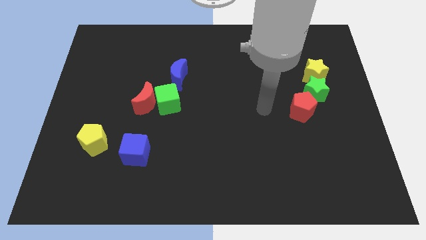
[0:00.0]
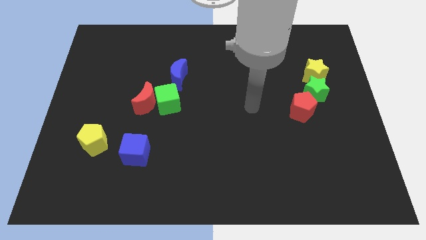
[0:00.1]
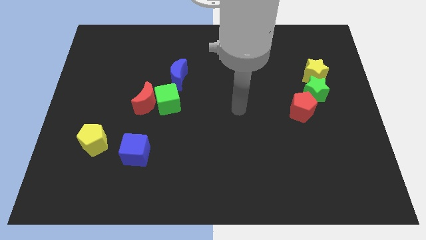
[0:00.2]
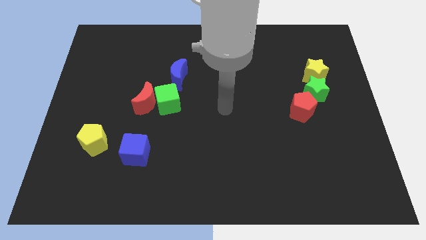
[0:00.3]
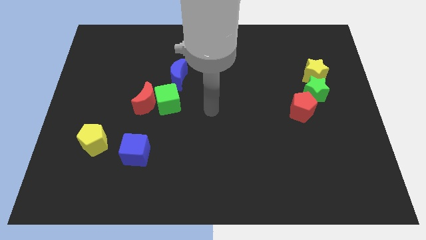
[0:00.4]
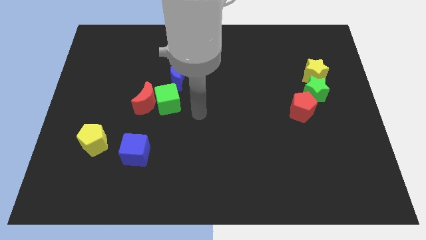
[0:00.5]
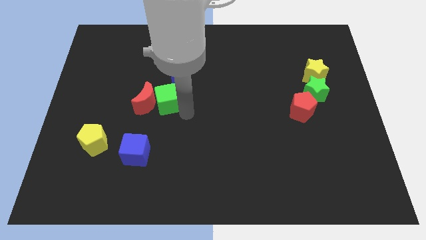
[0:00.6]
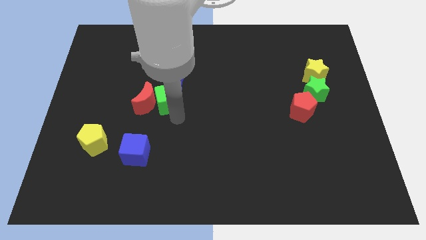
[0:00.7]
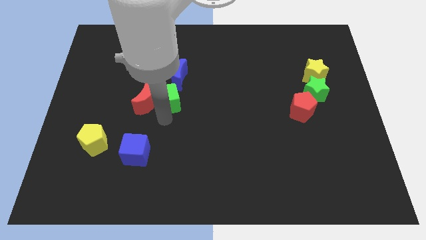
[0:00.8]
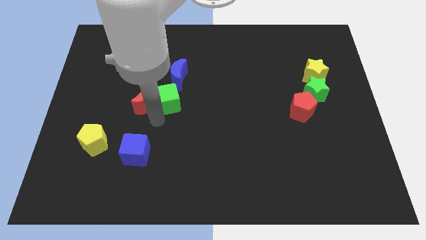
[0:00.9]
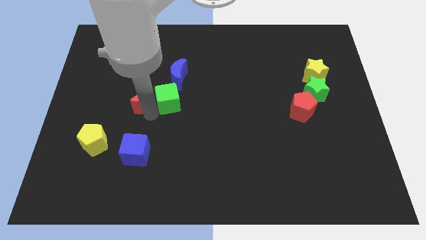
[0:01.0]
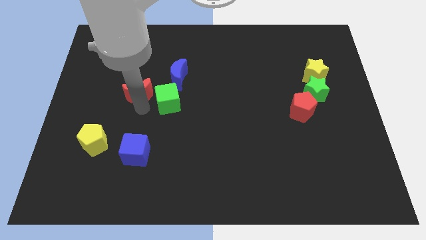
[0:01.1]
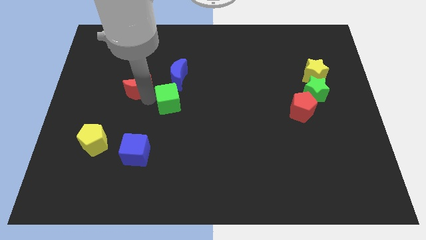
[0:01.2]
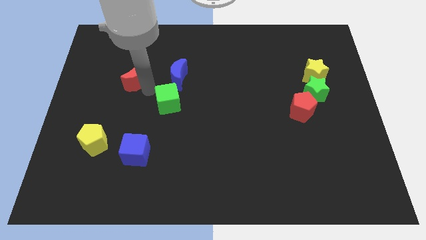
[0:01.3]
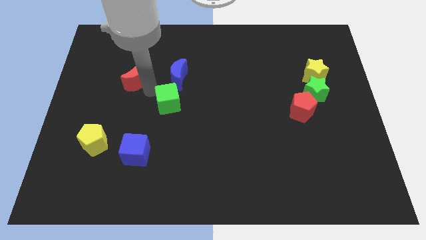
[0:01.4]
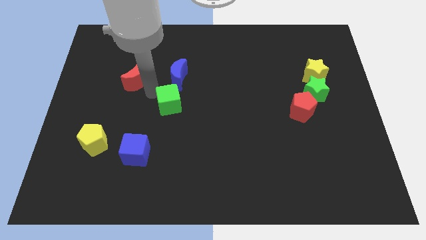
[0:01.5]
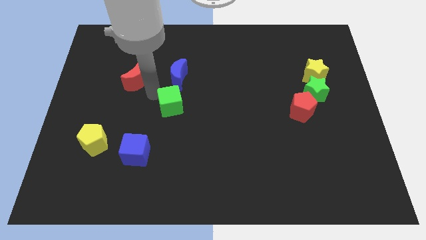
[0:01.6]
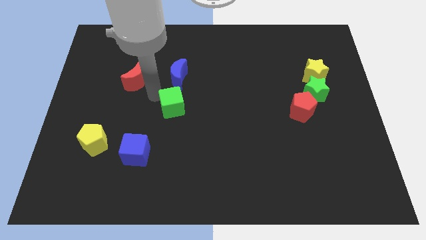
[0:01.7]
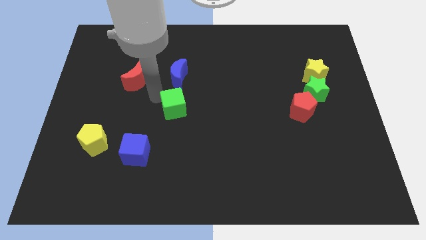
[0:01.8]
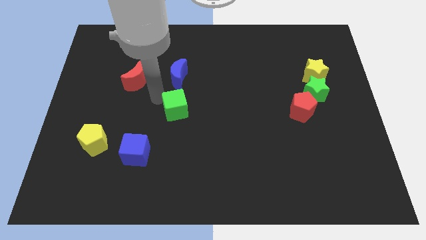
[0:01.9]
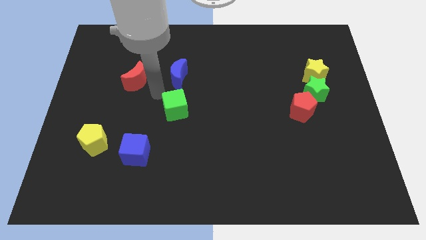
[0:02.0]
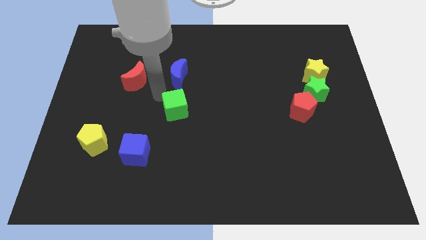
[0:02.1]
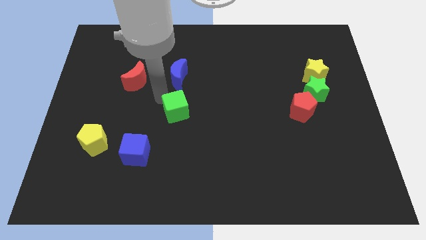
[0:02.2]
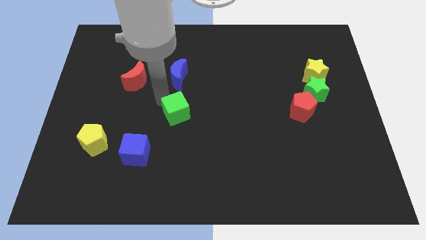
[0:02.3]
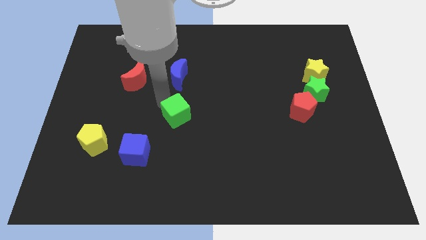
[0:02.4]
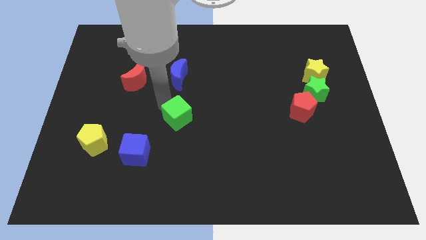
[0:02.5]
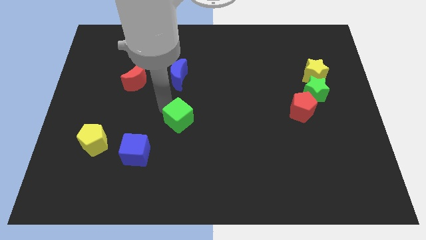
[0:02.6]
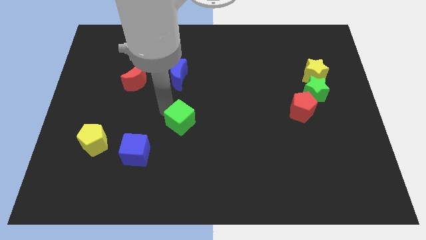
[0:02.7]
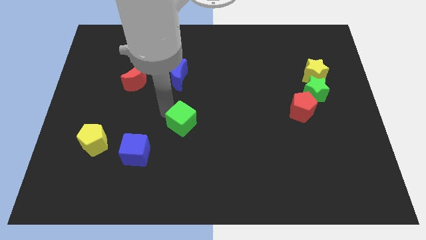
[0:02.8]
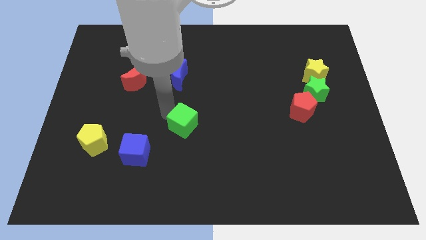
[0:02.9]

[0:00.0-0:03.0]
move the green cube a little bit downwards and right

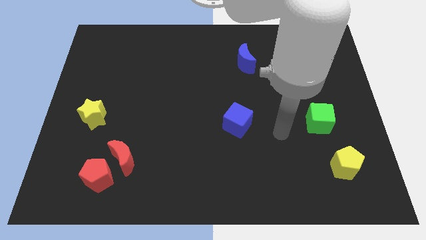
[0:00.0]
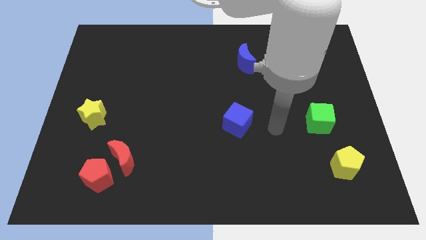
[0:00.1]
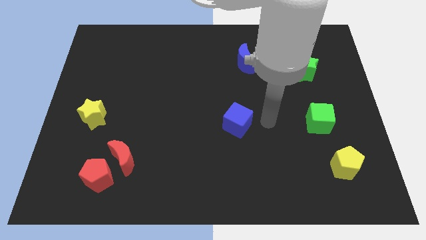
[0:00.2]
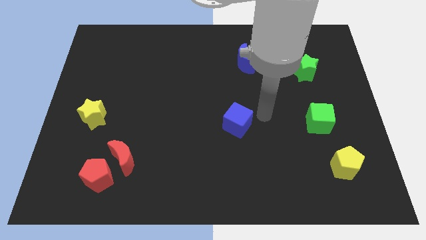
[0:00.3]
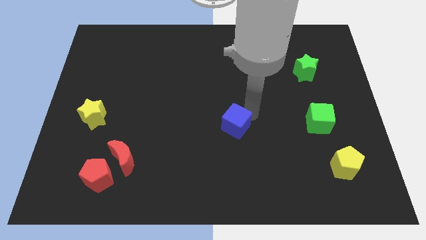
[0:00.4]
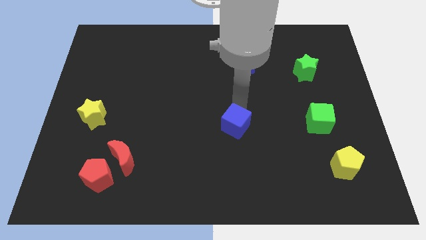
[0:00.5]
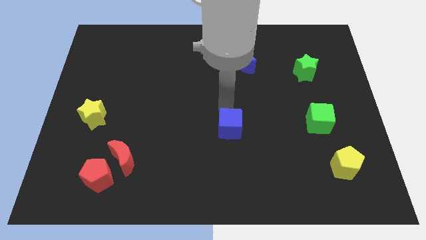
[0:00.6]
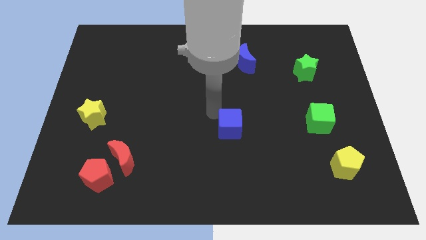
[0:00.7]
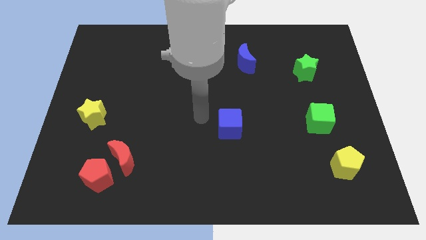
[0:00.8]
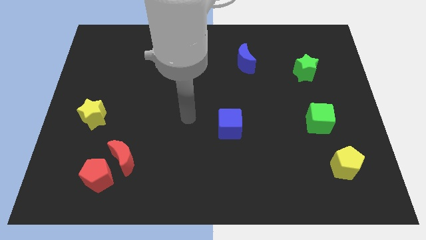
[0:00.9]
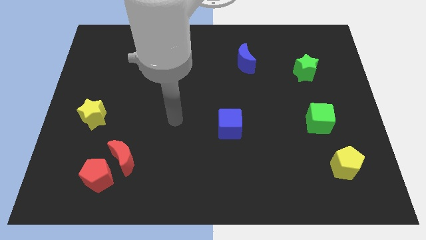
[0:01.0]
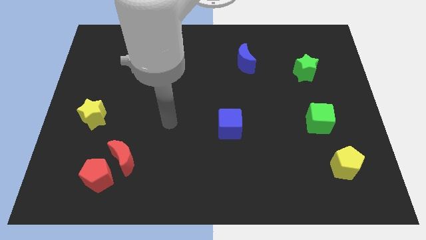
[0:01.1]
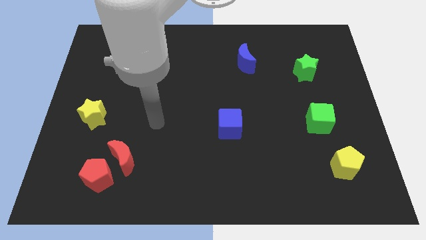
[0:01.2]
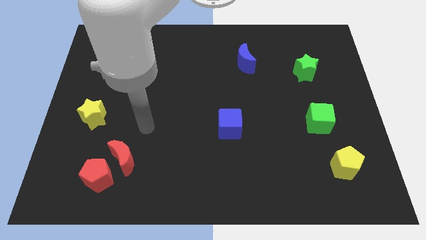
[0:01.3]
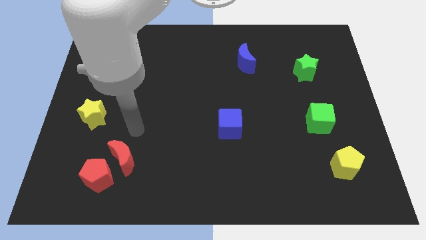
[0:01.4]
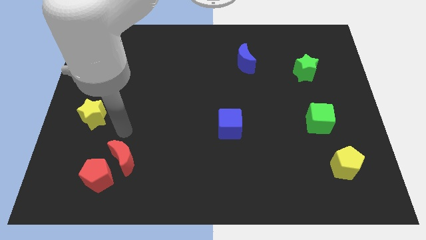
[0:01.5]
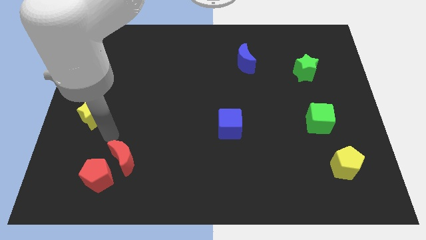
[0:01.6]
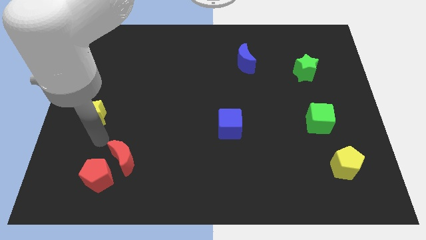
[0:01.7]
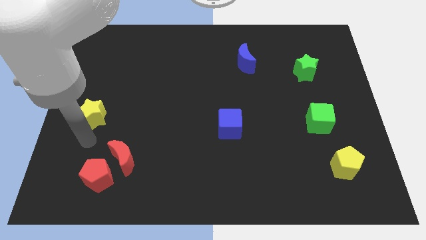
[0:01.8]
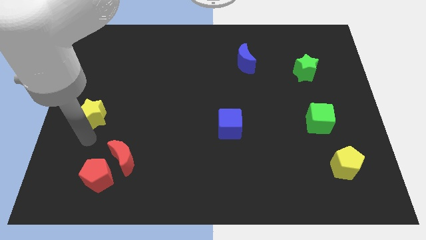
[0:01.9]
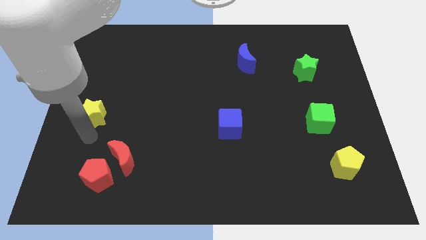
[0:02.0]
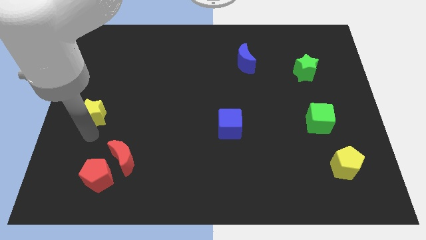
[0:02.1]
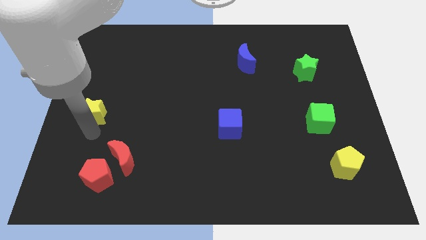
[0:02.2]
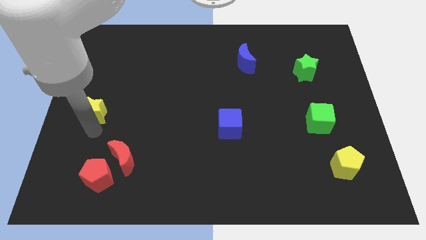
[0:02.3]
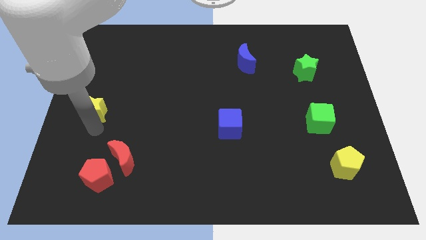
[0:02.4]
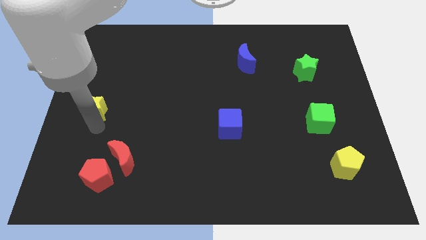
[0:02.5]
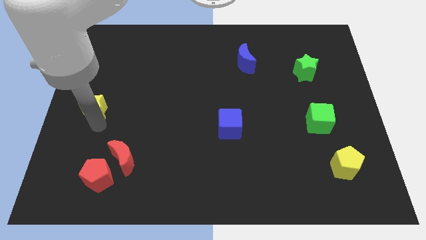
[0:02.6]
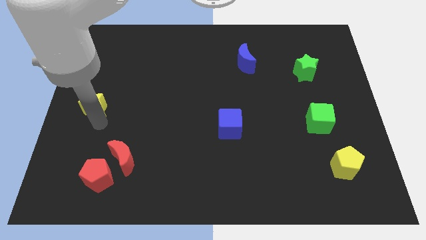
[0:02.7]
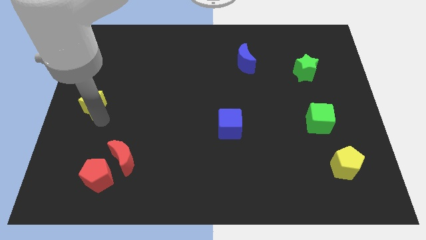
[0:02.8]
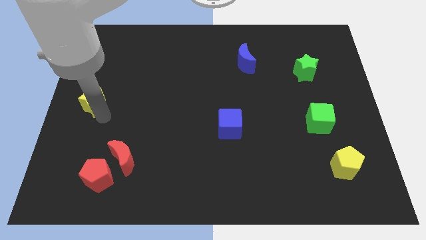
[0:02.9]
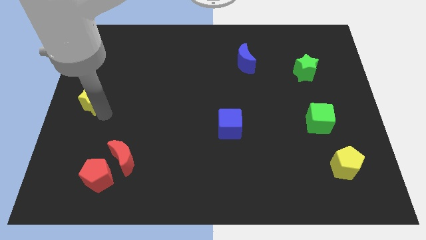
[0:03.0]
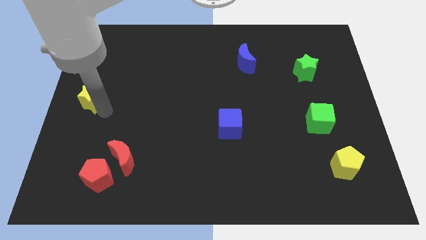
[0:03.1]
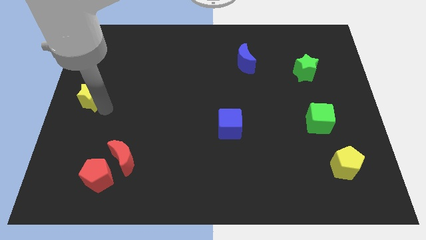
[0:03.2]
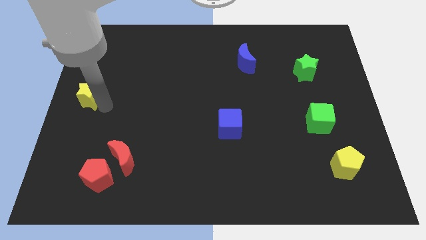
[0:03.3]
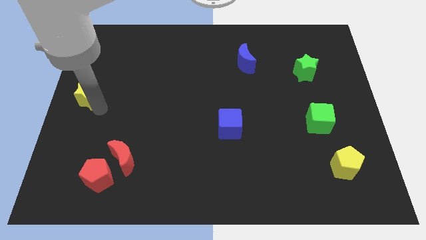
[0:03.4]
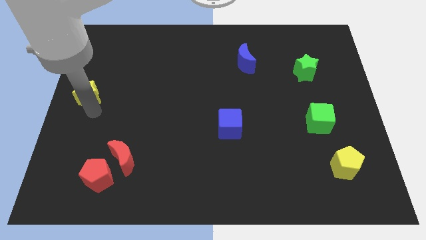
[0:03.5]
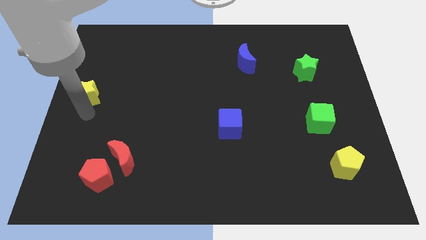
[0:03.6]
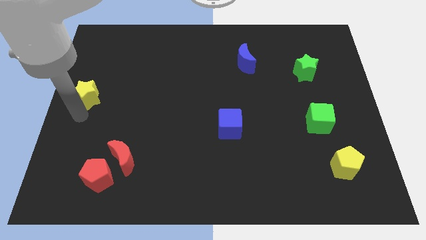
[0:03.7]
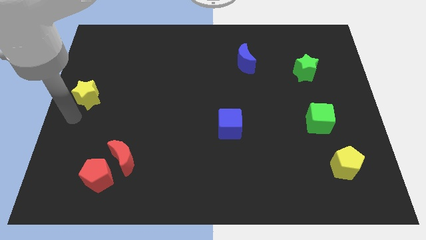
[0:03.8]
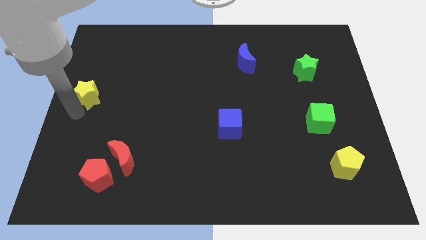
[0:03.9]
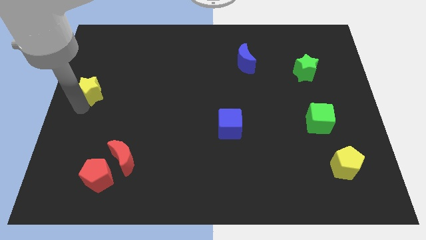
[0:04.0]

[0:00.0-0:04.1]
push the yellow star up a little bit

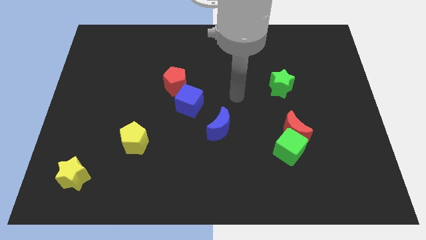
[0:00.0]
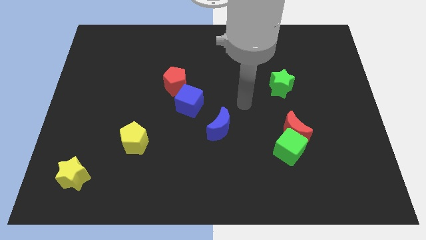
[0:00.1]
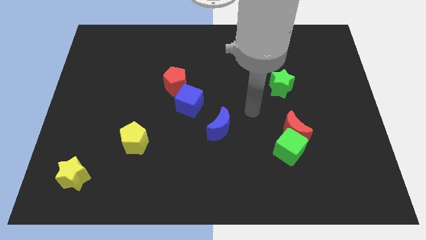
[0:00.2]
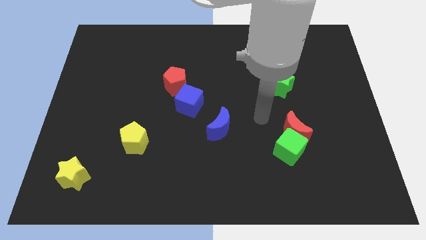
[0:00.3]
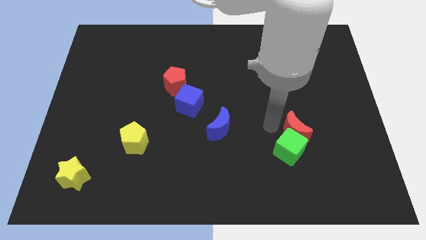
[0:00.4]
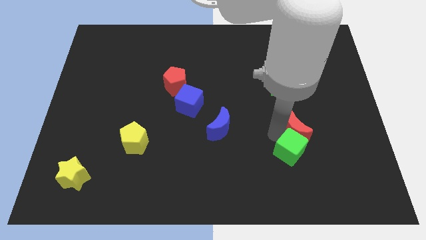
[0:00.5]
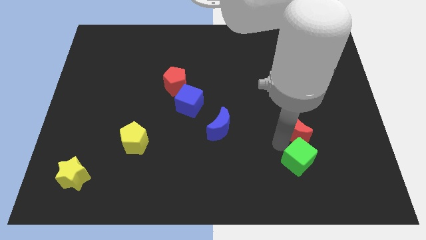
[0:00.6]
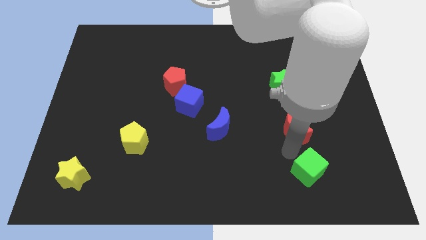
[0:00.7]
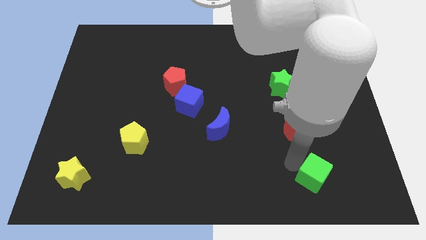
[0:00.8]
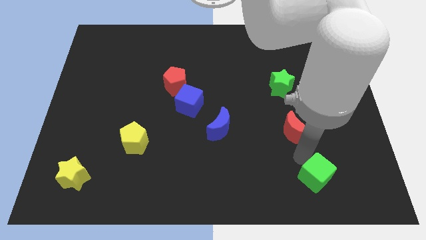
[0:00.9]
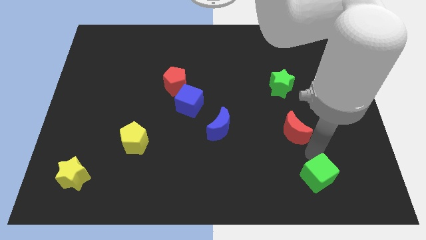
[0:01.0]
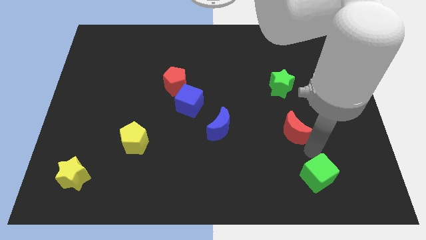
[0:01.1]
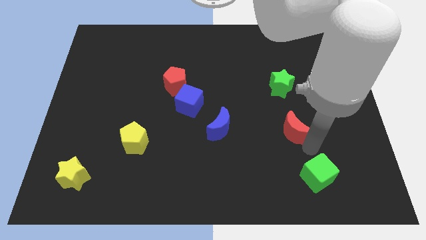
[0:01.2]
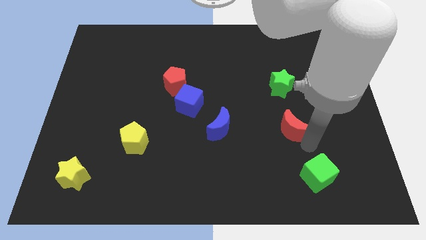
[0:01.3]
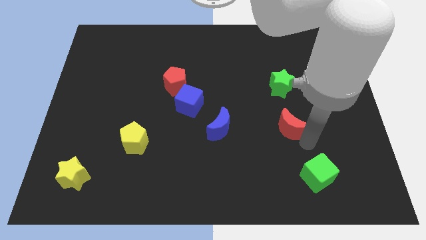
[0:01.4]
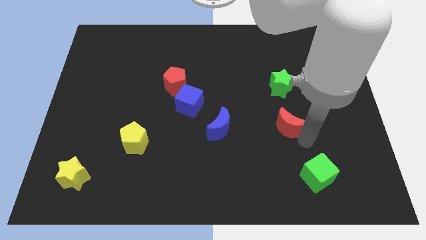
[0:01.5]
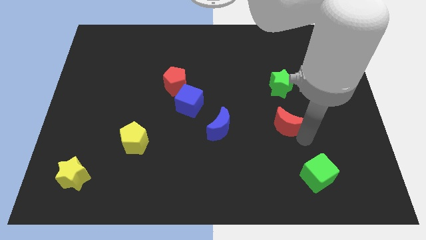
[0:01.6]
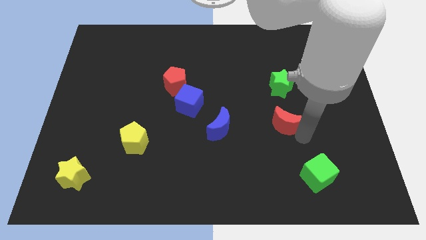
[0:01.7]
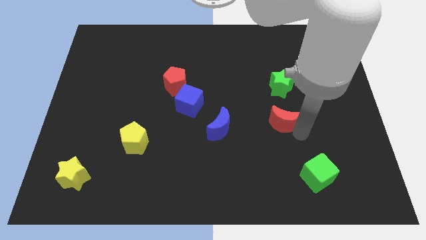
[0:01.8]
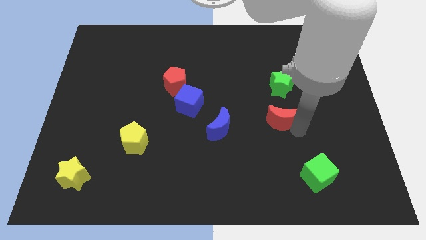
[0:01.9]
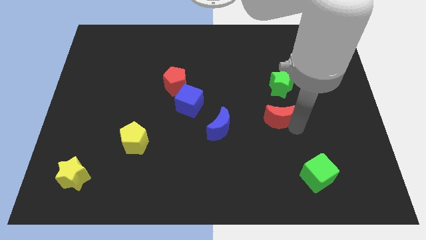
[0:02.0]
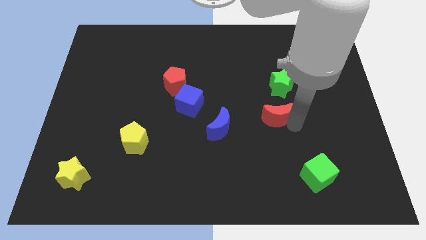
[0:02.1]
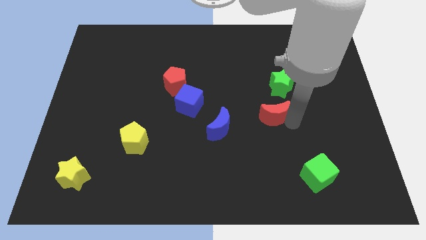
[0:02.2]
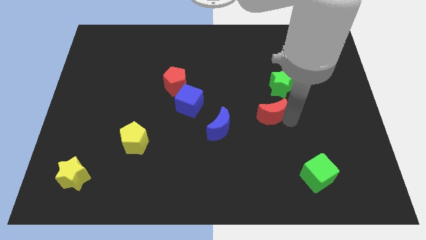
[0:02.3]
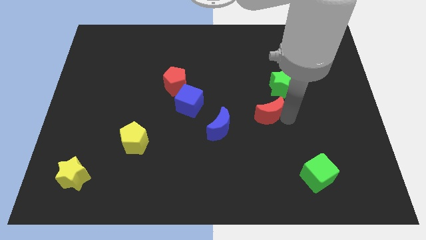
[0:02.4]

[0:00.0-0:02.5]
slightly move the red moon diagonally up and to the left
